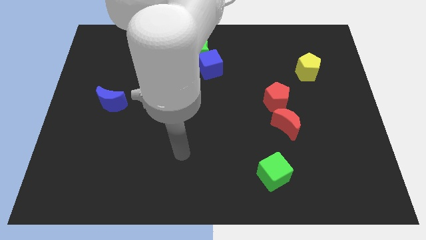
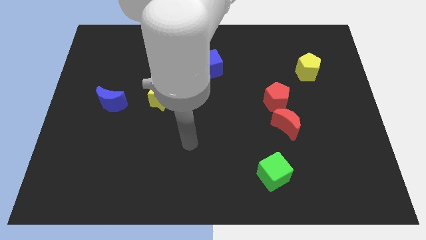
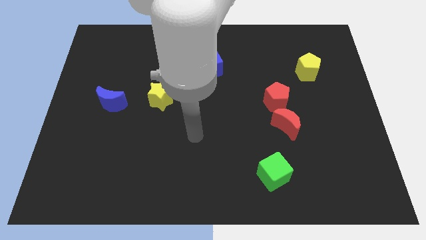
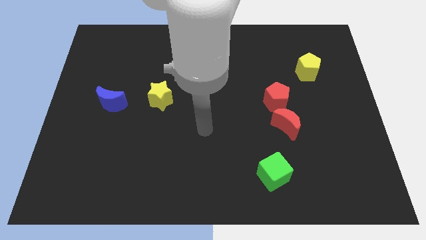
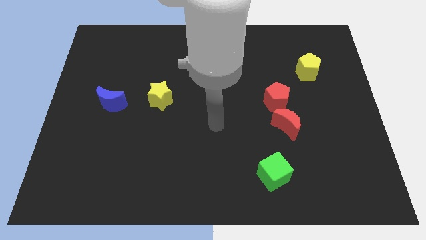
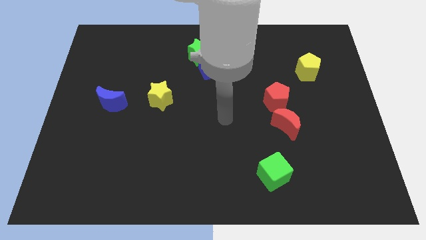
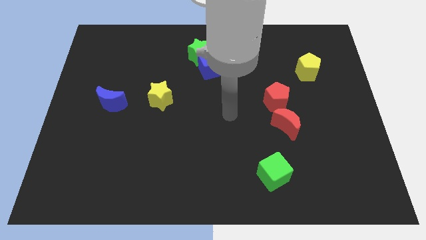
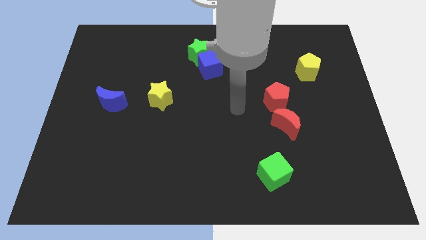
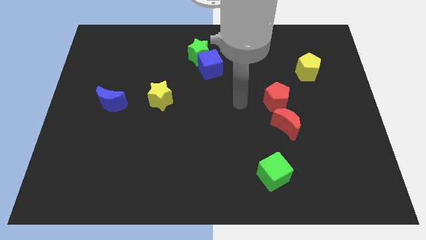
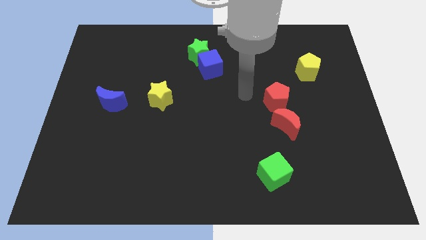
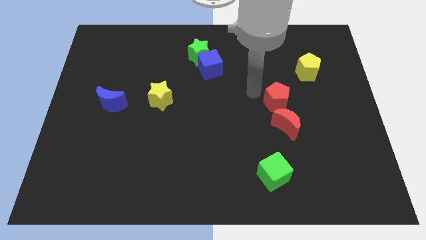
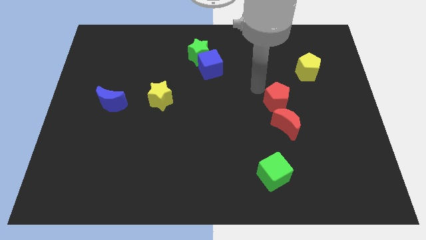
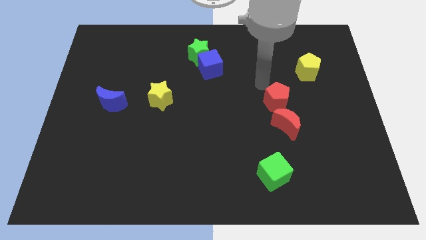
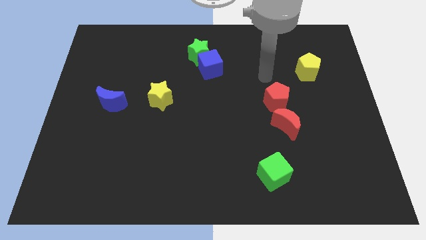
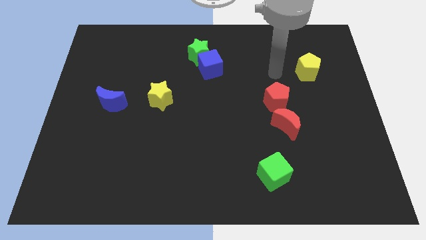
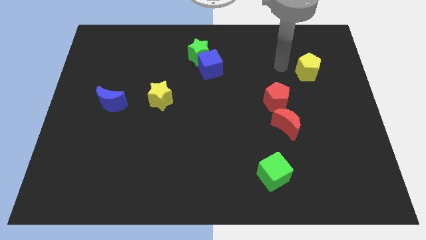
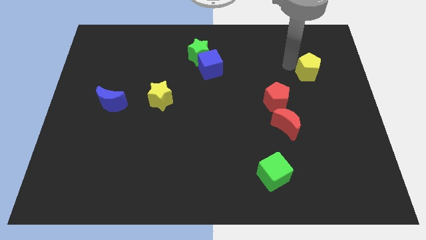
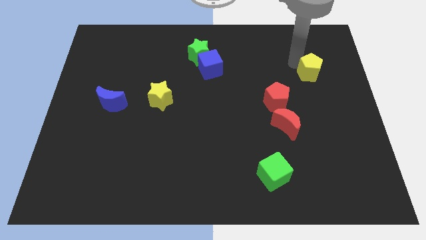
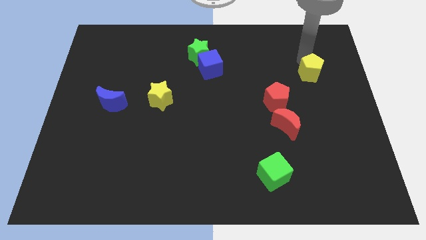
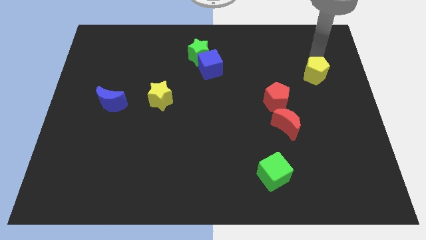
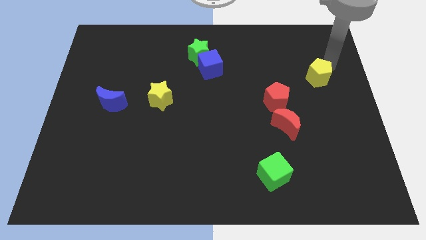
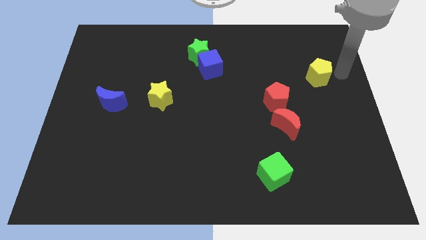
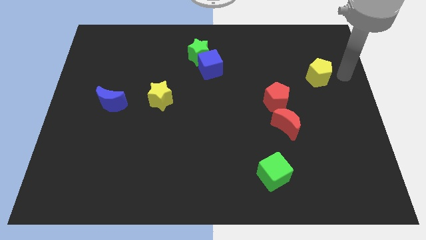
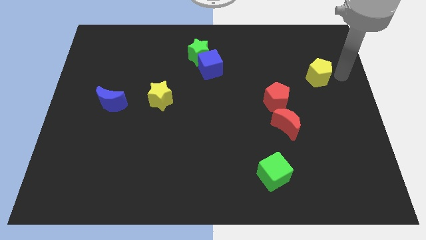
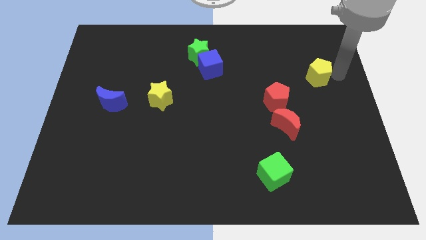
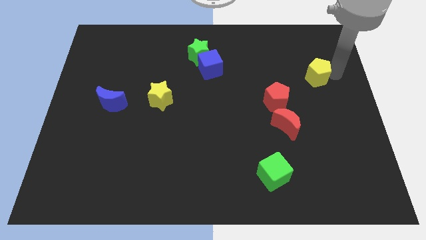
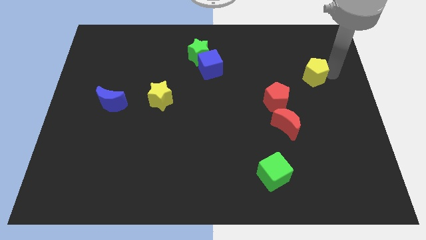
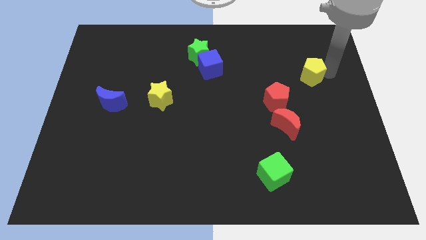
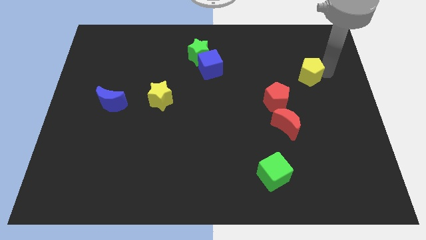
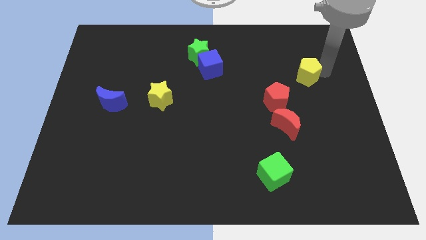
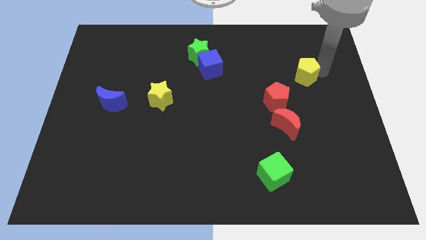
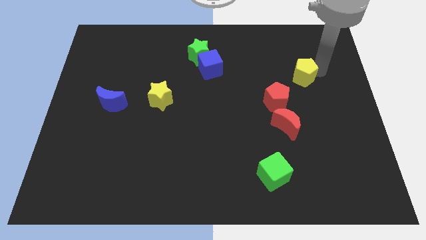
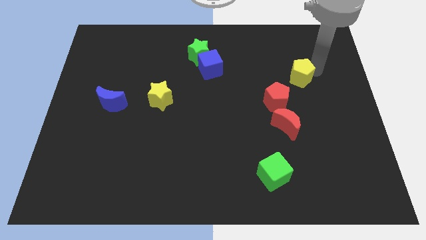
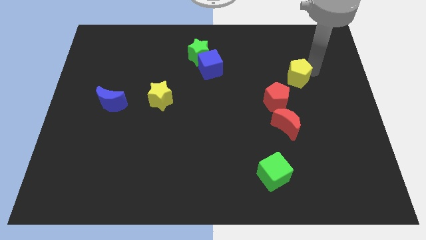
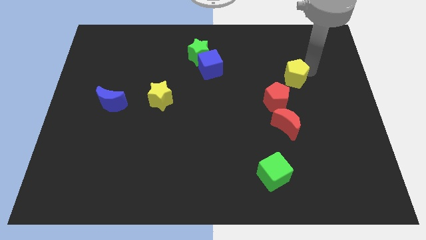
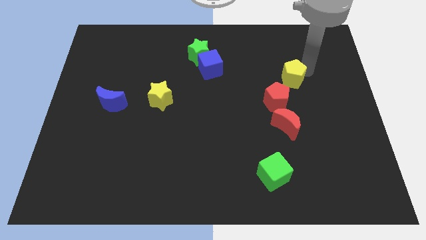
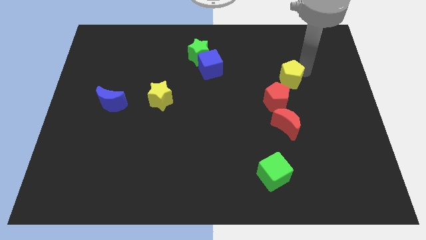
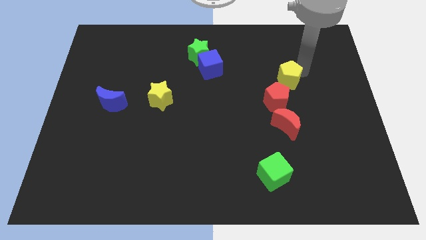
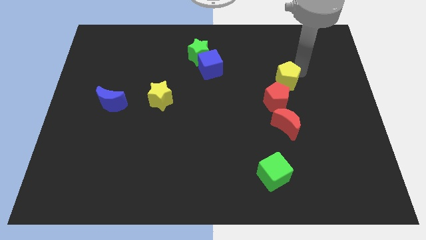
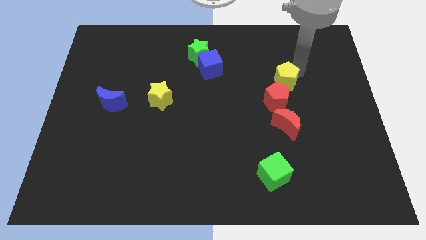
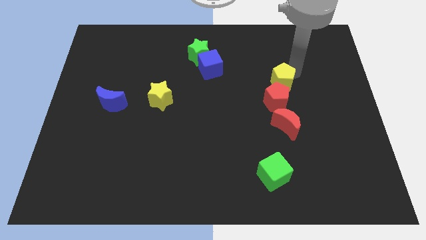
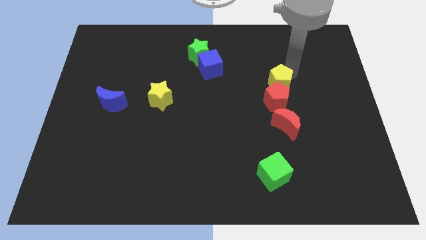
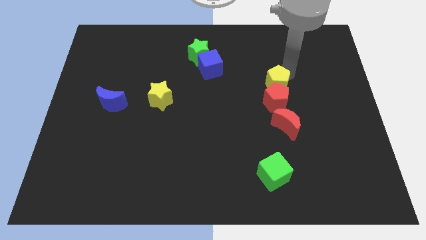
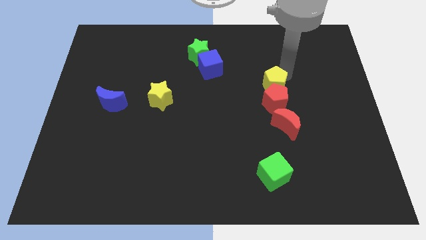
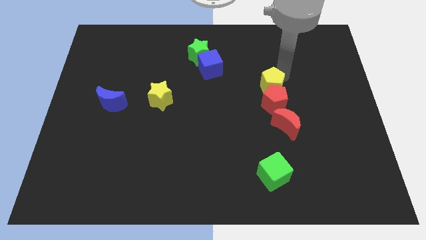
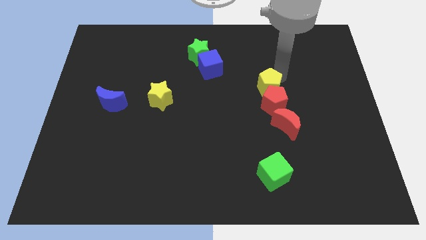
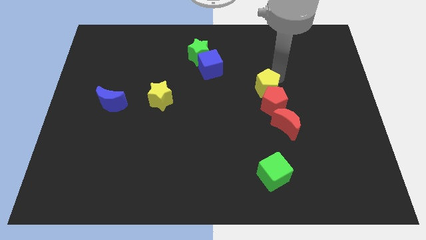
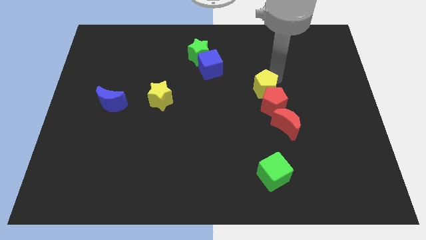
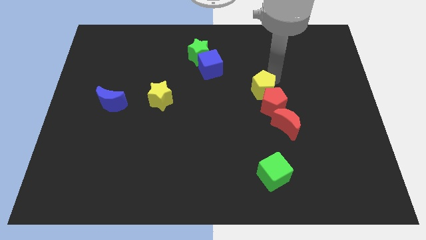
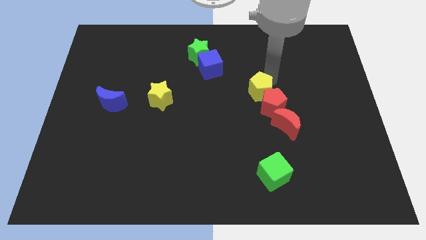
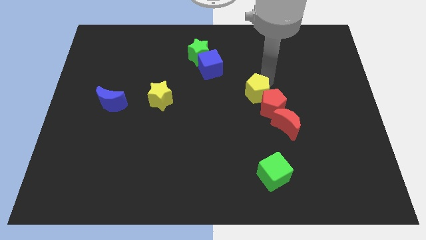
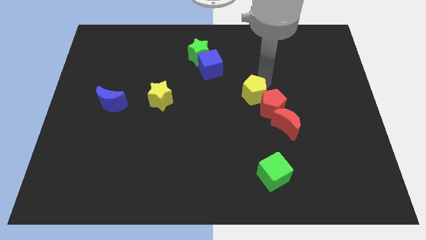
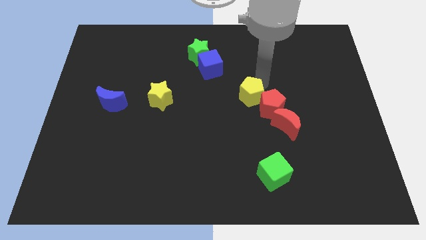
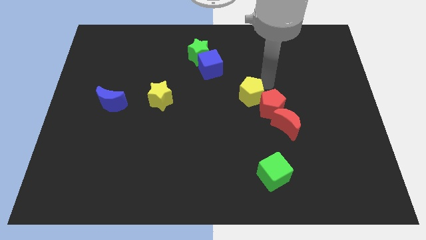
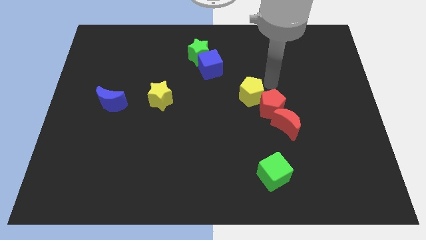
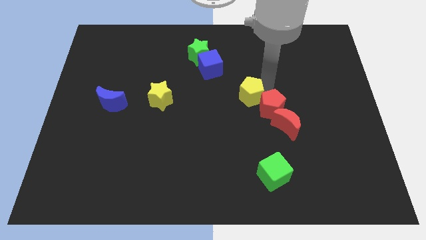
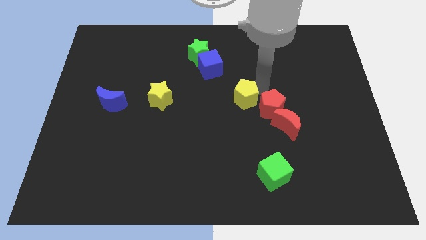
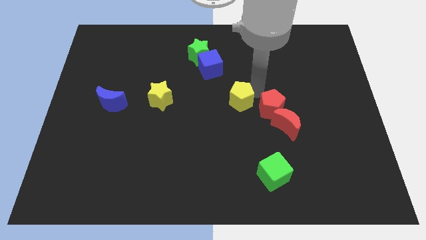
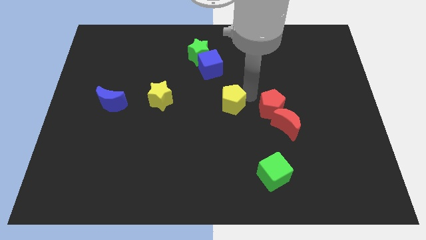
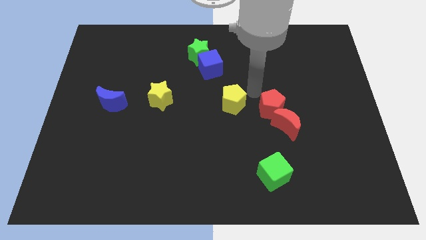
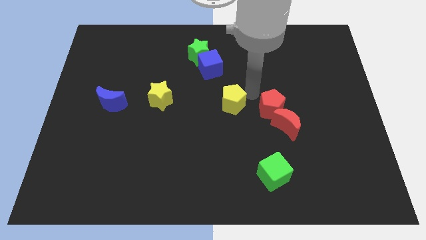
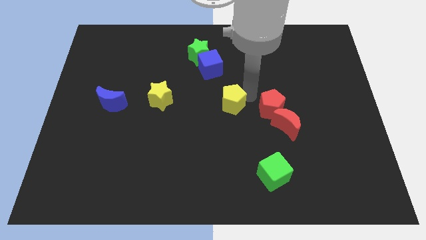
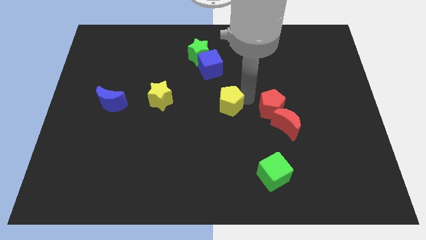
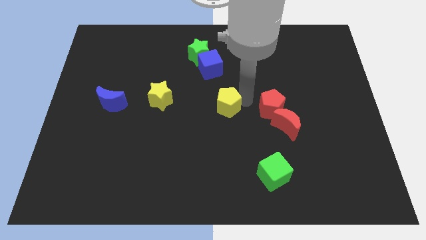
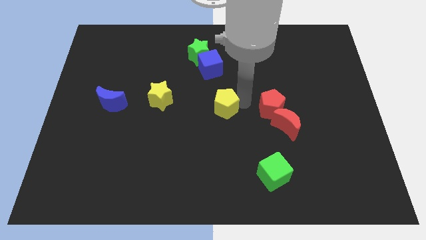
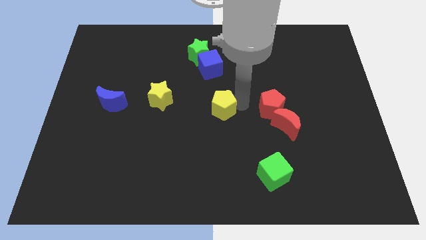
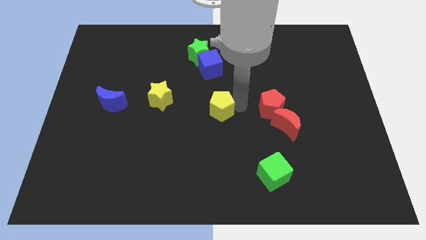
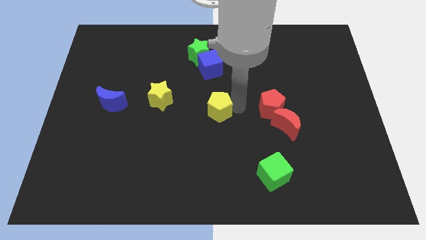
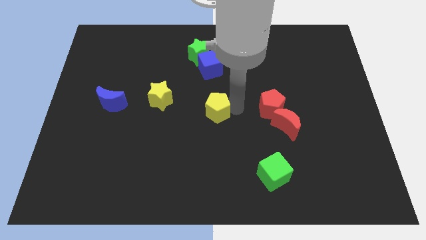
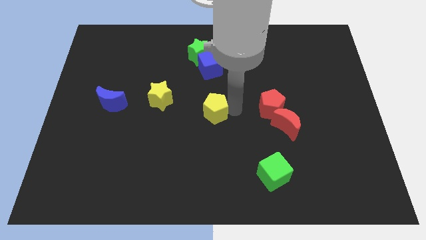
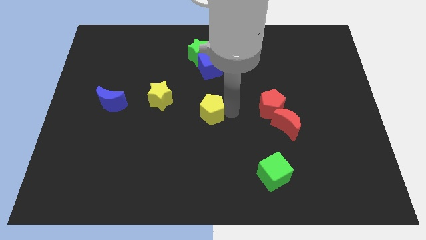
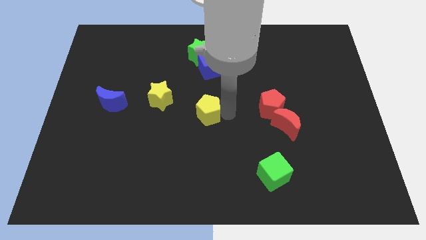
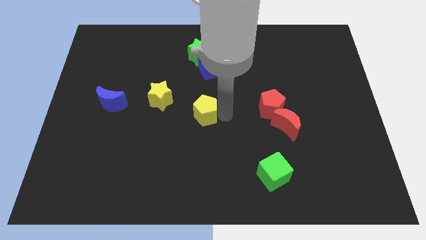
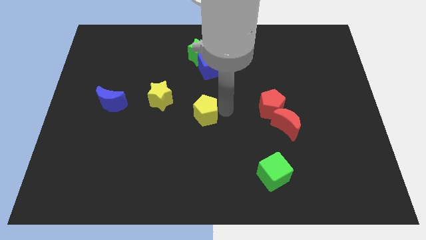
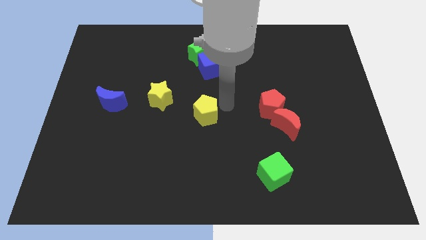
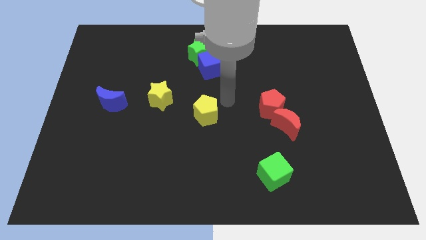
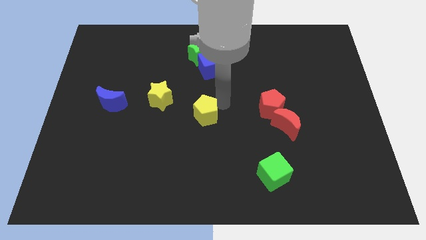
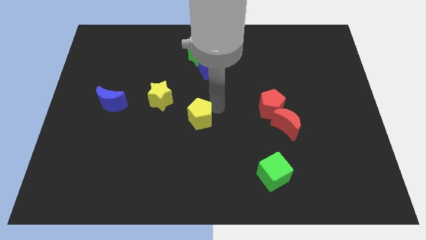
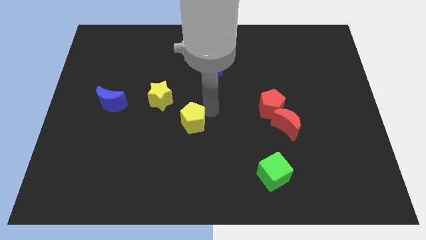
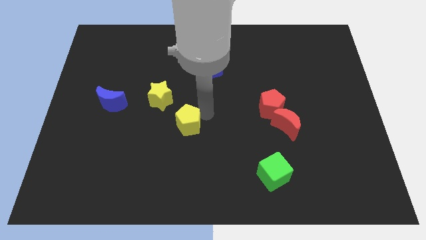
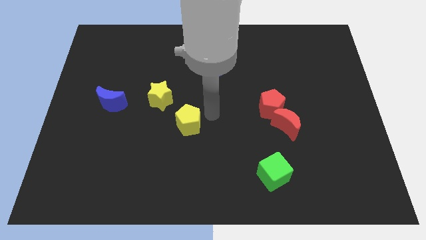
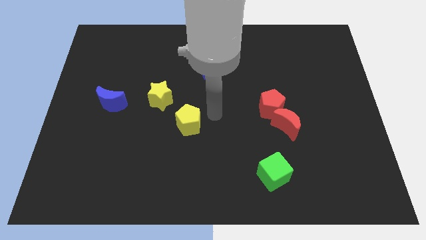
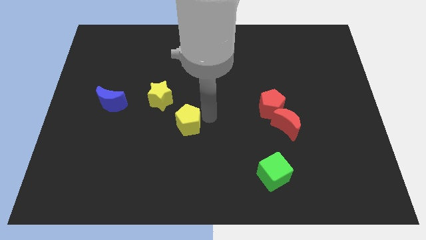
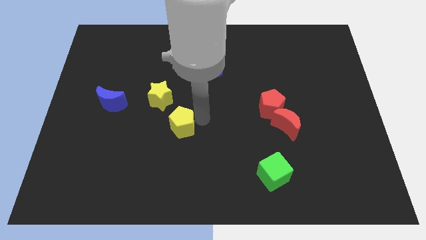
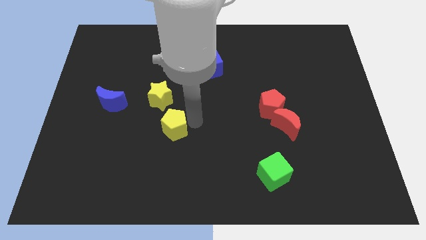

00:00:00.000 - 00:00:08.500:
move the yellow pentagon to the bottom side of the yellow star
